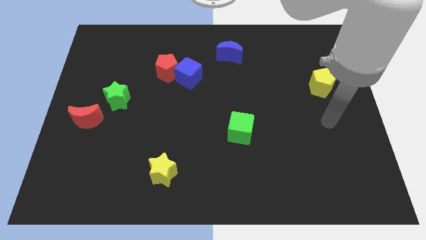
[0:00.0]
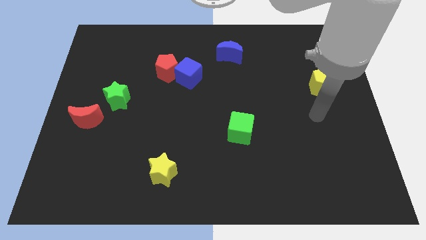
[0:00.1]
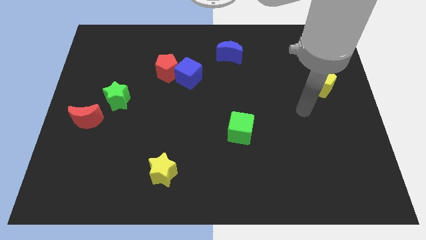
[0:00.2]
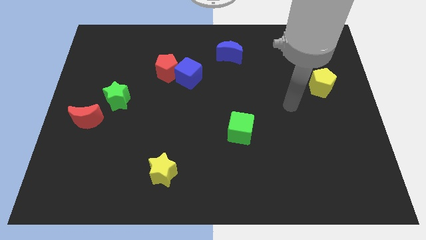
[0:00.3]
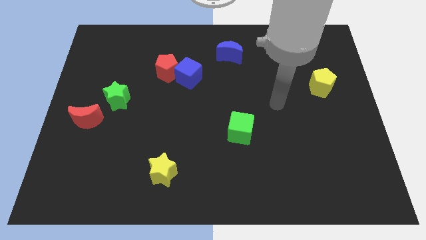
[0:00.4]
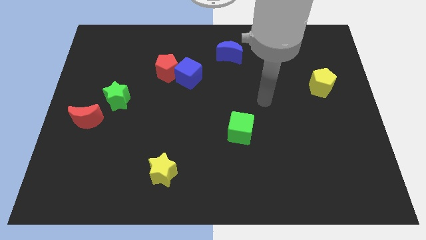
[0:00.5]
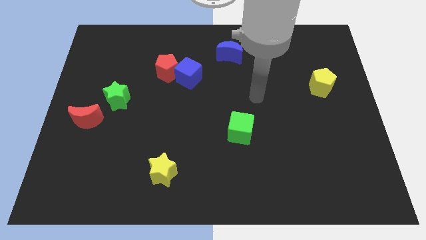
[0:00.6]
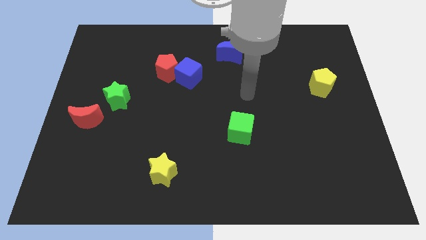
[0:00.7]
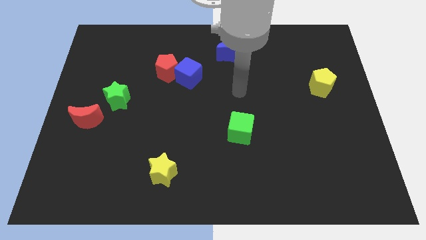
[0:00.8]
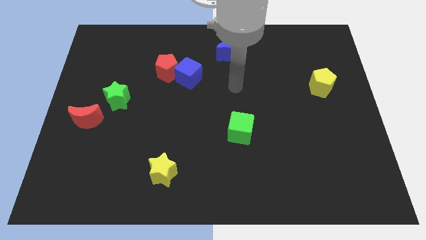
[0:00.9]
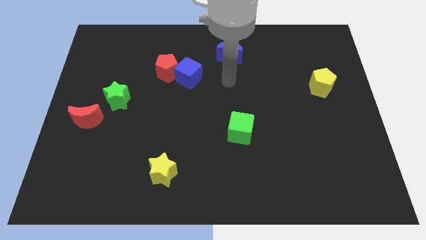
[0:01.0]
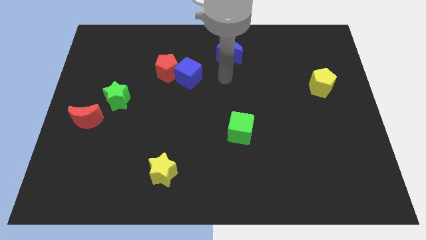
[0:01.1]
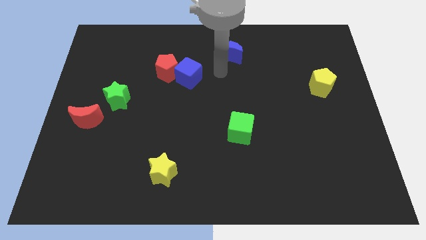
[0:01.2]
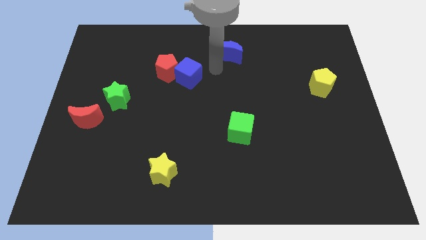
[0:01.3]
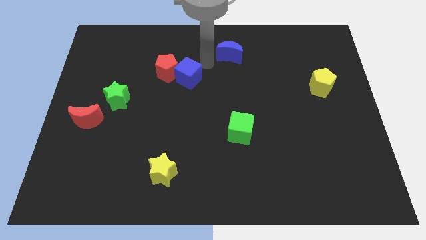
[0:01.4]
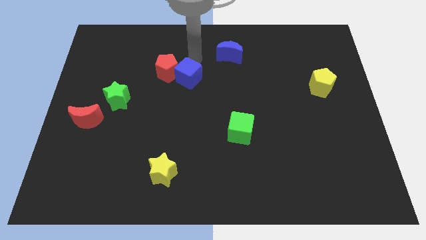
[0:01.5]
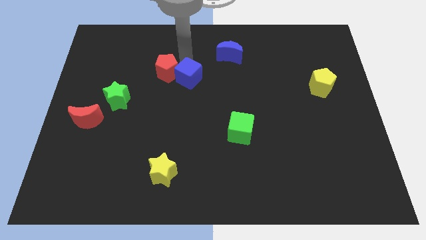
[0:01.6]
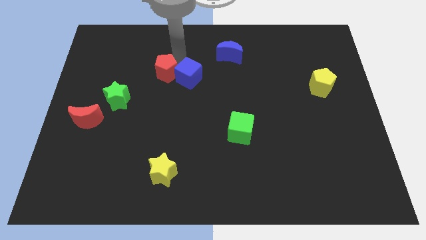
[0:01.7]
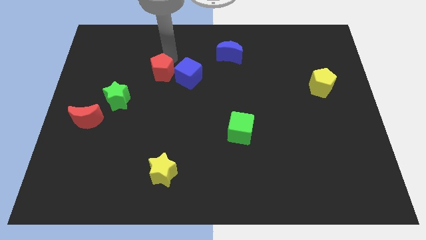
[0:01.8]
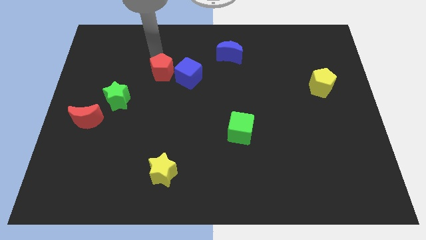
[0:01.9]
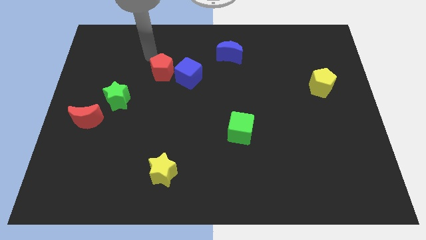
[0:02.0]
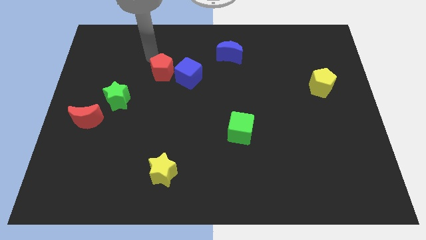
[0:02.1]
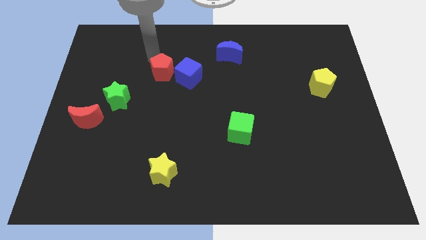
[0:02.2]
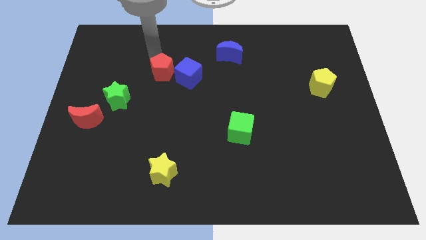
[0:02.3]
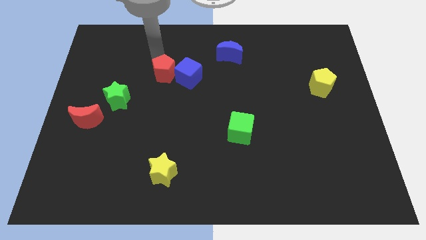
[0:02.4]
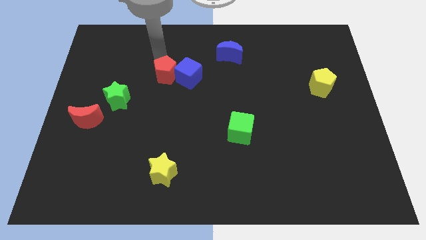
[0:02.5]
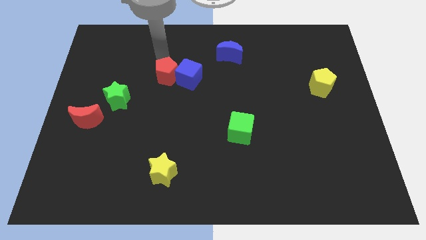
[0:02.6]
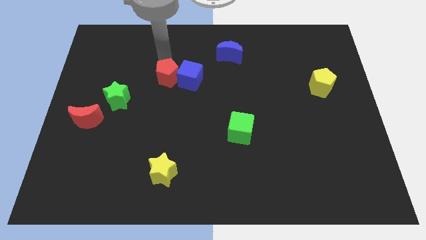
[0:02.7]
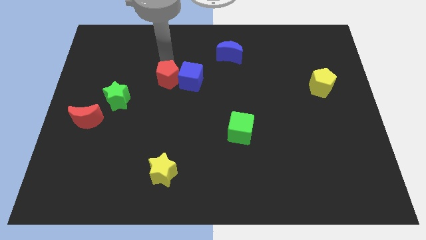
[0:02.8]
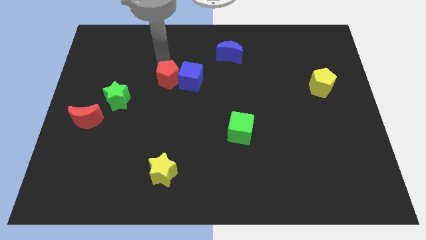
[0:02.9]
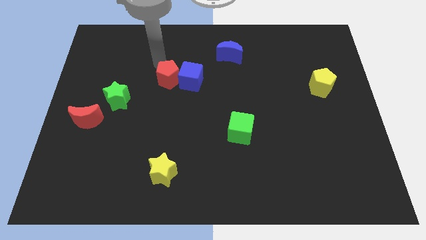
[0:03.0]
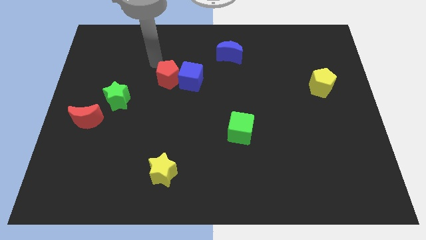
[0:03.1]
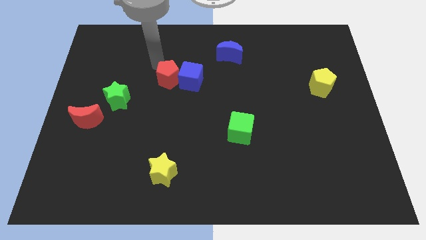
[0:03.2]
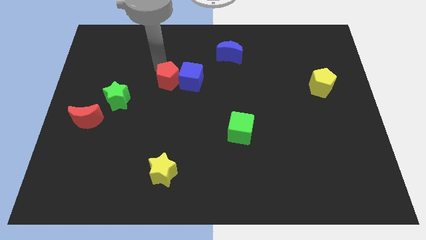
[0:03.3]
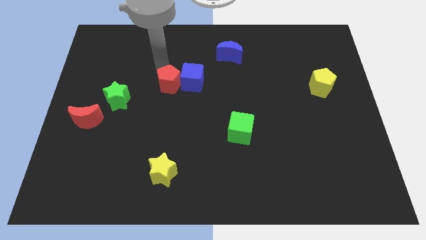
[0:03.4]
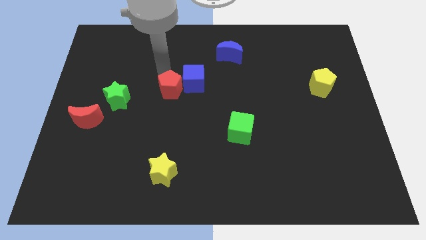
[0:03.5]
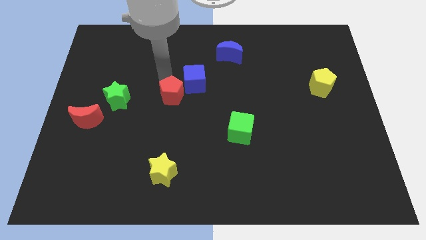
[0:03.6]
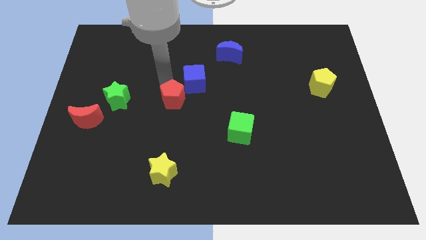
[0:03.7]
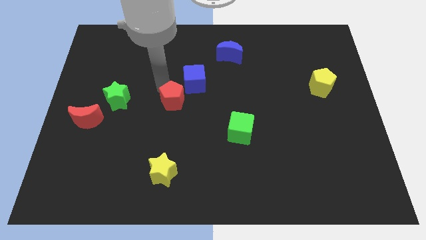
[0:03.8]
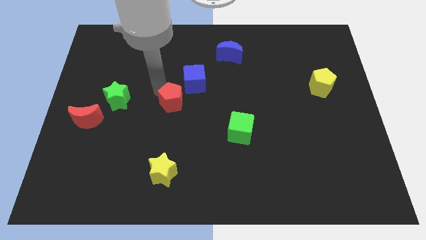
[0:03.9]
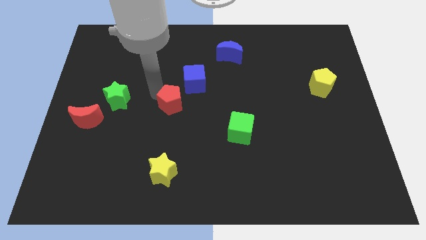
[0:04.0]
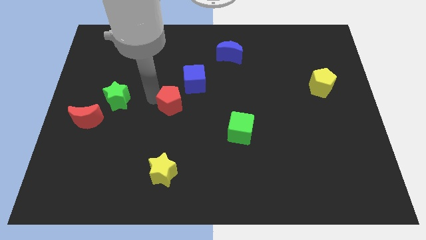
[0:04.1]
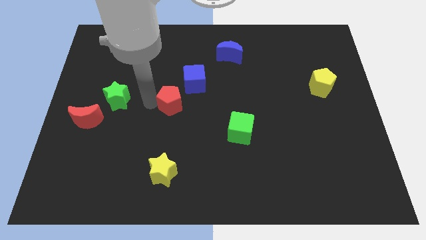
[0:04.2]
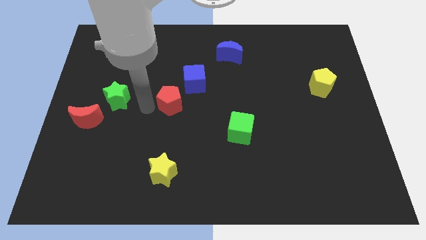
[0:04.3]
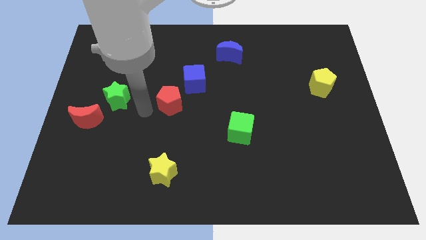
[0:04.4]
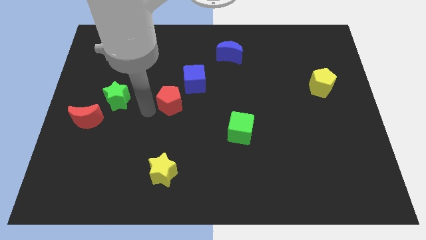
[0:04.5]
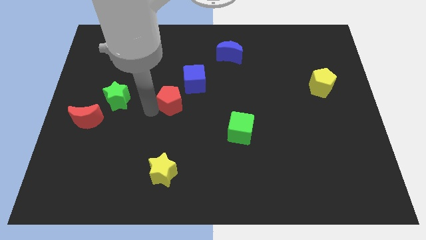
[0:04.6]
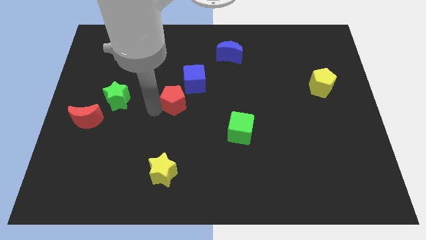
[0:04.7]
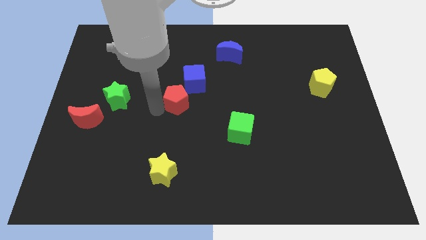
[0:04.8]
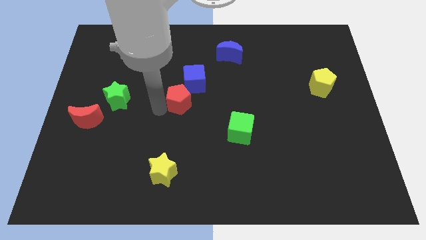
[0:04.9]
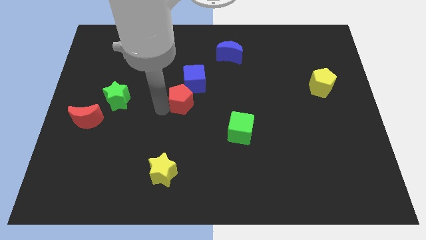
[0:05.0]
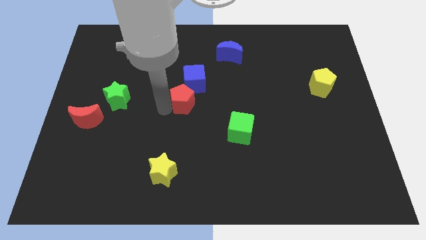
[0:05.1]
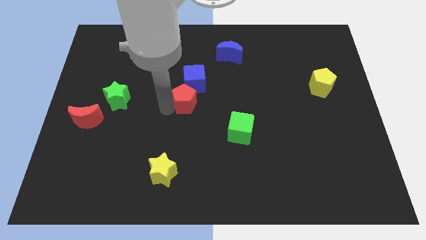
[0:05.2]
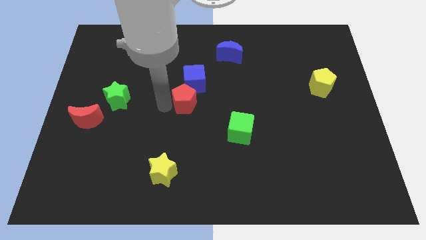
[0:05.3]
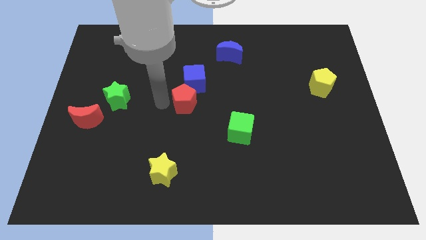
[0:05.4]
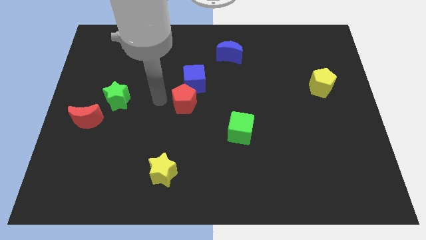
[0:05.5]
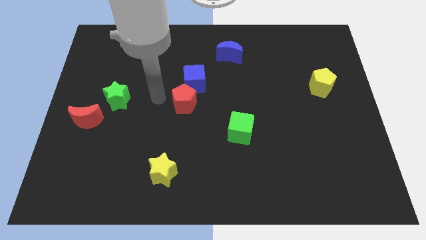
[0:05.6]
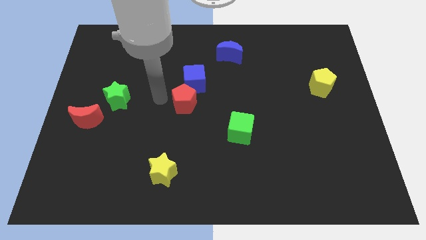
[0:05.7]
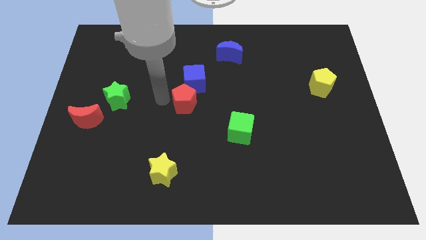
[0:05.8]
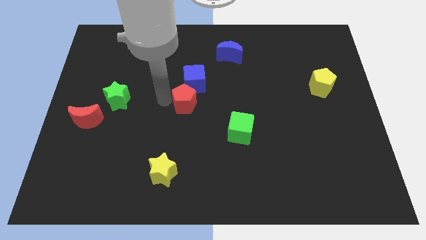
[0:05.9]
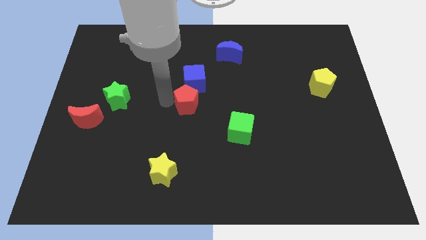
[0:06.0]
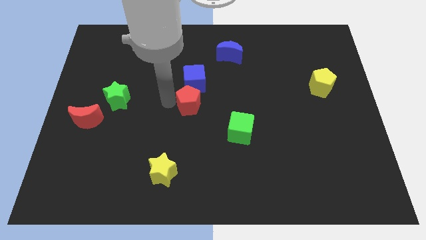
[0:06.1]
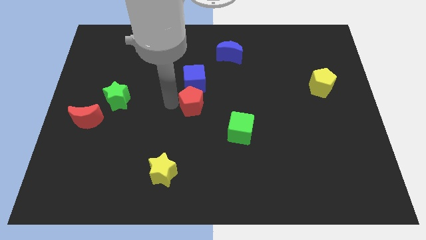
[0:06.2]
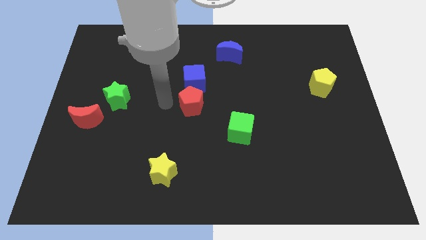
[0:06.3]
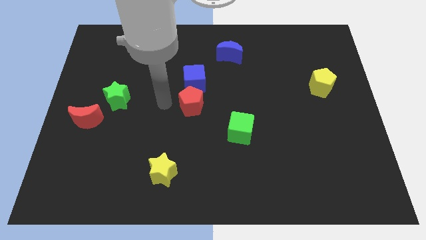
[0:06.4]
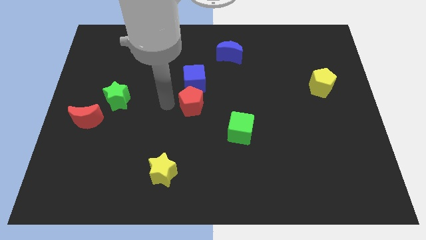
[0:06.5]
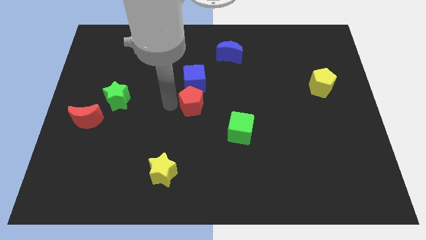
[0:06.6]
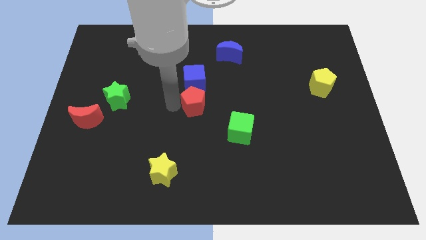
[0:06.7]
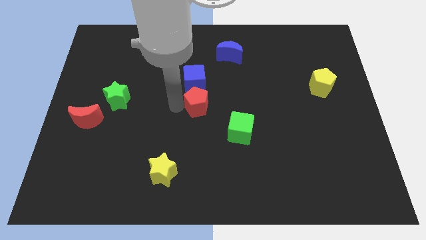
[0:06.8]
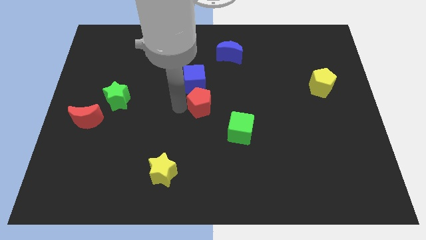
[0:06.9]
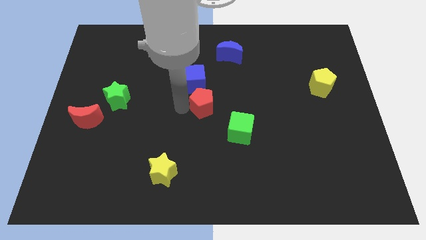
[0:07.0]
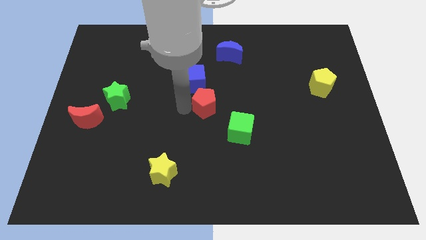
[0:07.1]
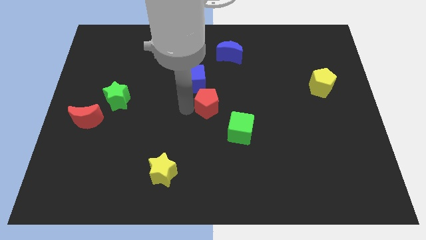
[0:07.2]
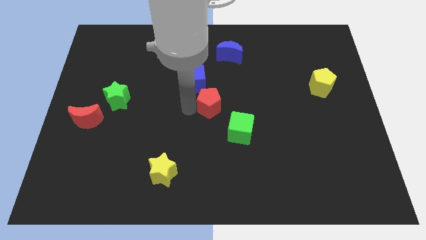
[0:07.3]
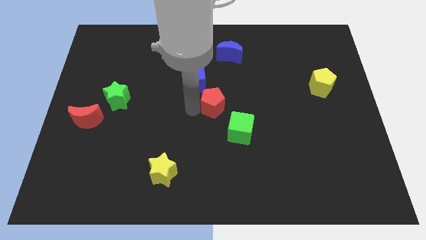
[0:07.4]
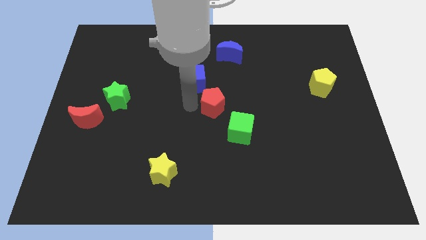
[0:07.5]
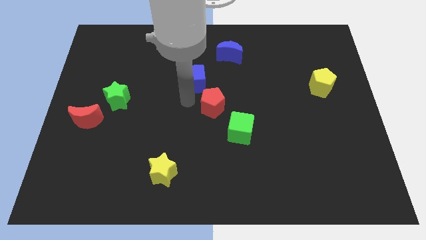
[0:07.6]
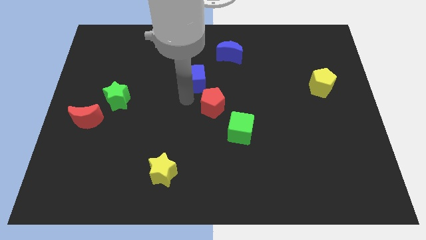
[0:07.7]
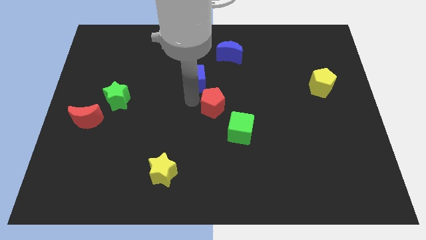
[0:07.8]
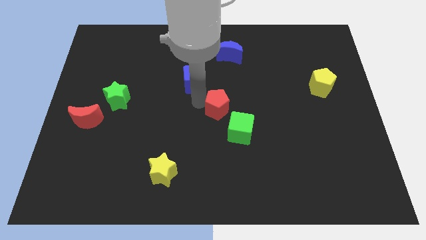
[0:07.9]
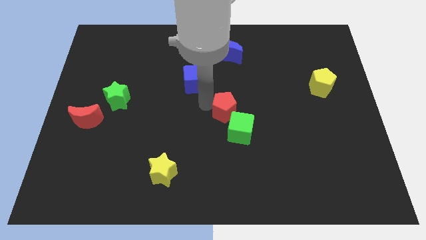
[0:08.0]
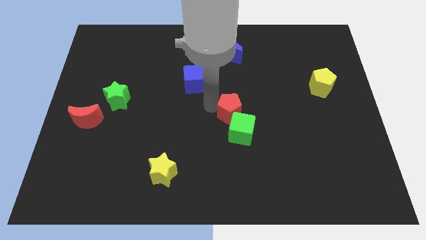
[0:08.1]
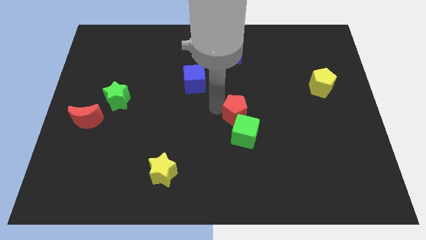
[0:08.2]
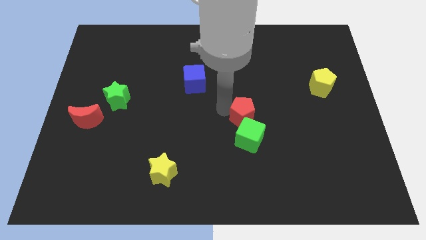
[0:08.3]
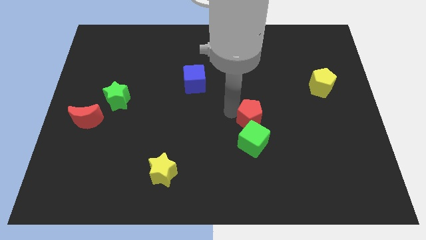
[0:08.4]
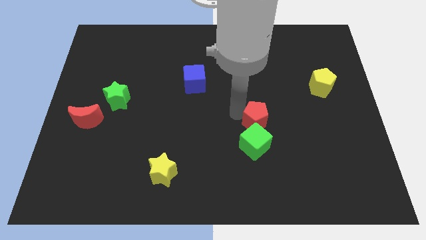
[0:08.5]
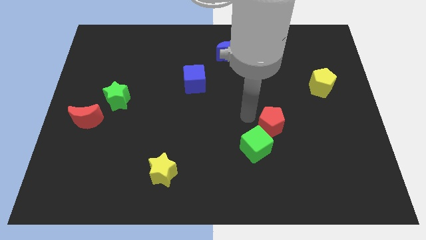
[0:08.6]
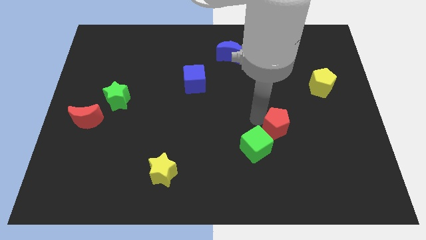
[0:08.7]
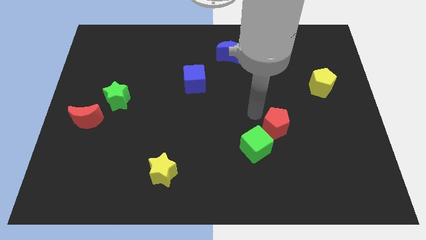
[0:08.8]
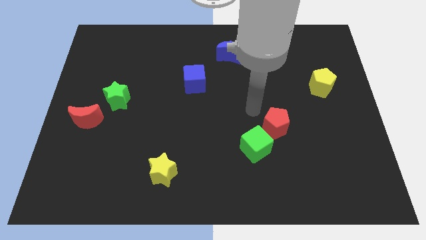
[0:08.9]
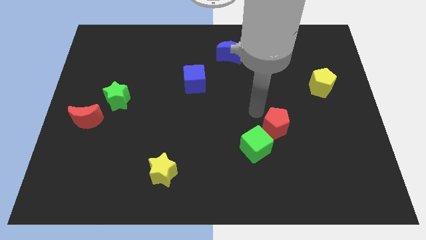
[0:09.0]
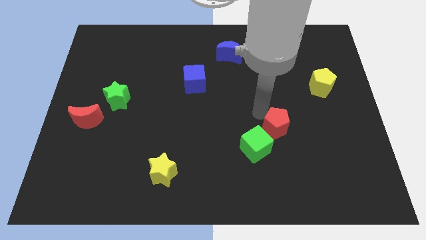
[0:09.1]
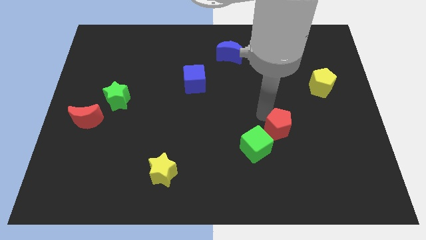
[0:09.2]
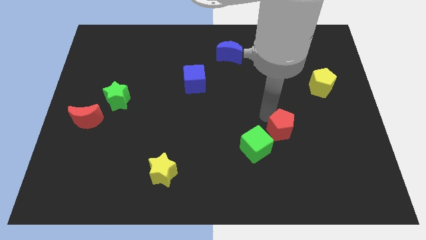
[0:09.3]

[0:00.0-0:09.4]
slide the red pentagon to the right side of the green cube
